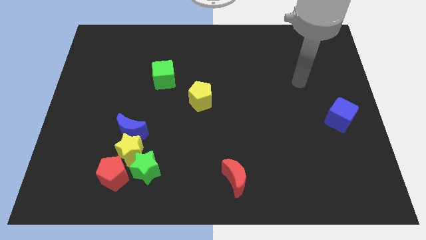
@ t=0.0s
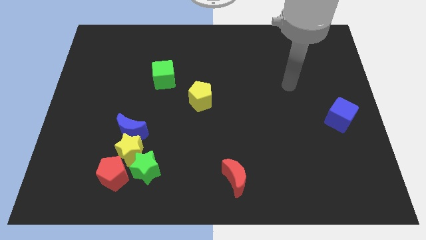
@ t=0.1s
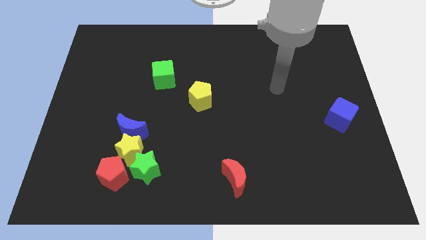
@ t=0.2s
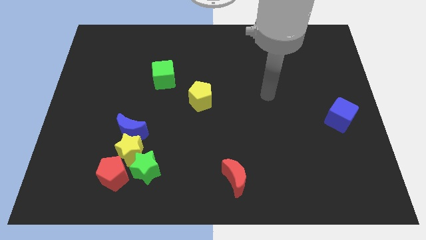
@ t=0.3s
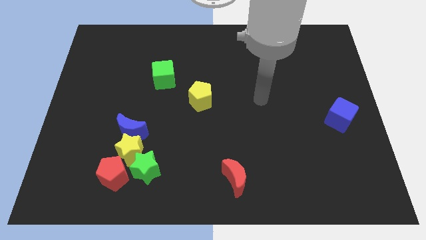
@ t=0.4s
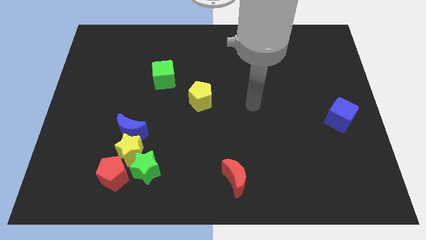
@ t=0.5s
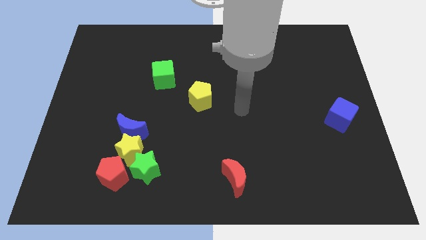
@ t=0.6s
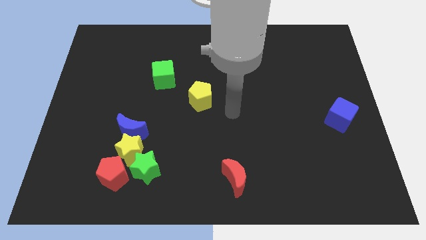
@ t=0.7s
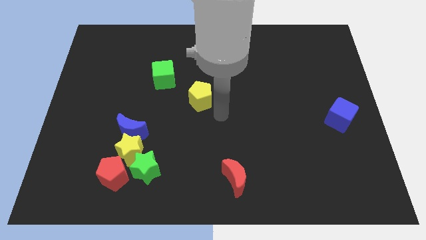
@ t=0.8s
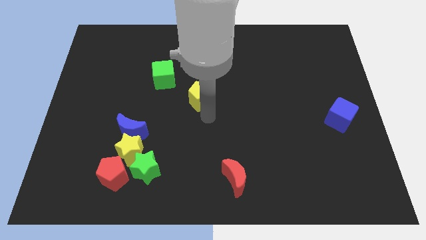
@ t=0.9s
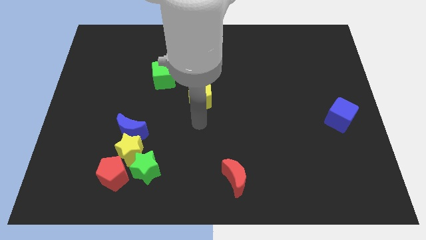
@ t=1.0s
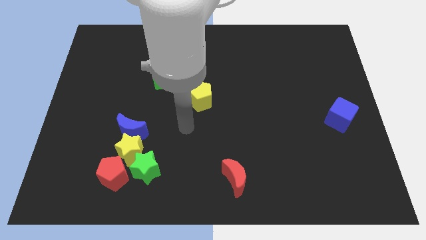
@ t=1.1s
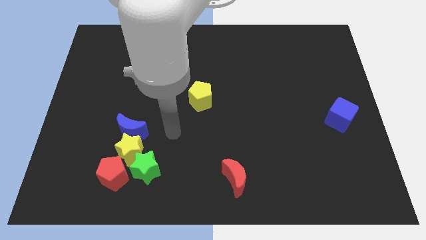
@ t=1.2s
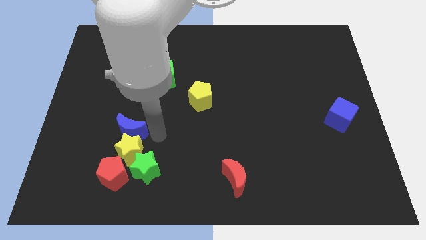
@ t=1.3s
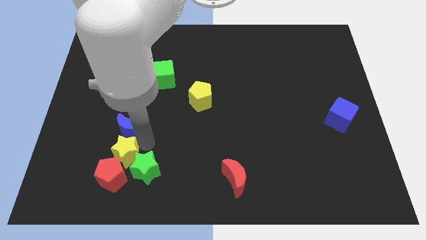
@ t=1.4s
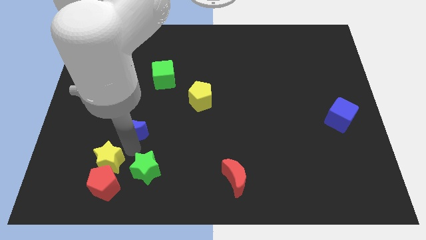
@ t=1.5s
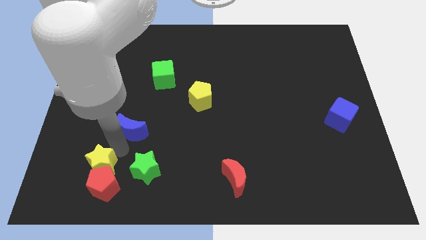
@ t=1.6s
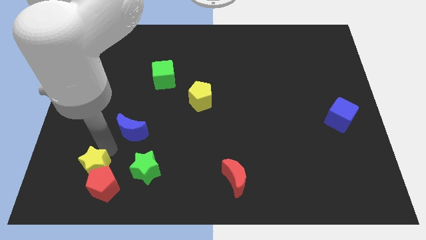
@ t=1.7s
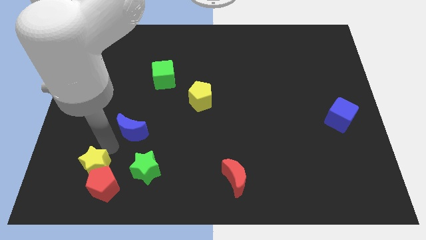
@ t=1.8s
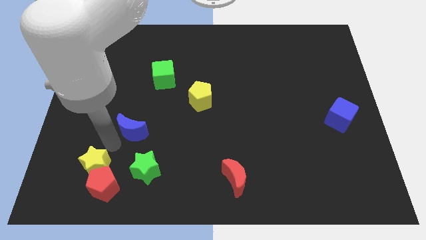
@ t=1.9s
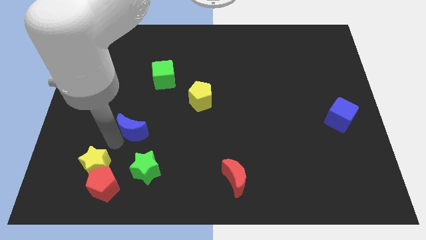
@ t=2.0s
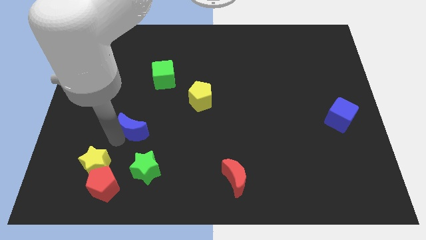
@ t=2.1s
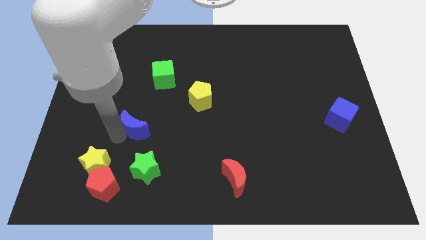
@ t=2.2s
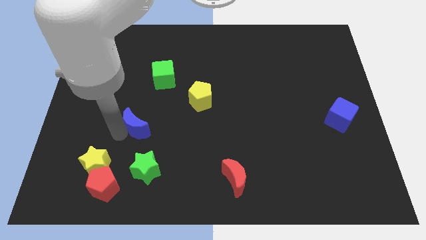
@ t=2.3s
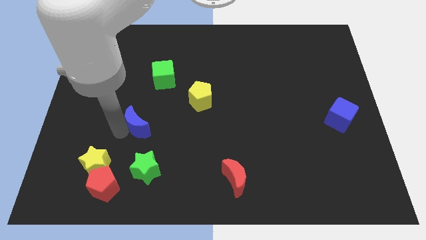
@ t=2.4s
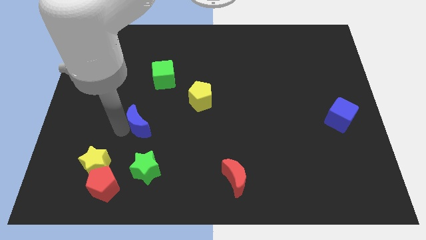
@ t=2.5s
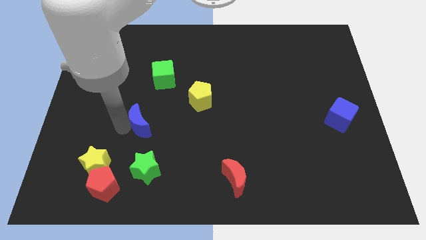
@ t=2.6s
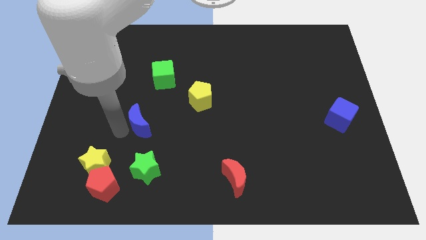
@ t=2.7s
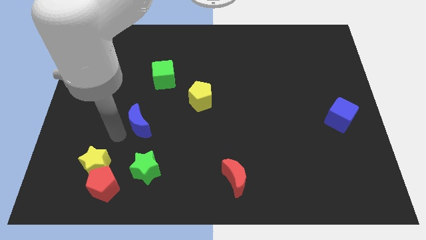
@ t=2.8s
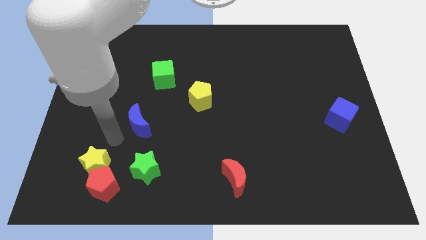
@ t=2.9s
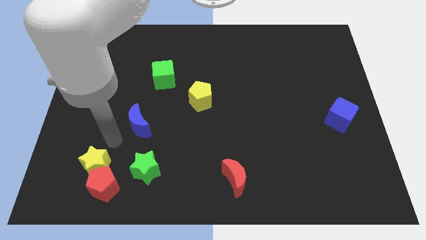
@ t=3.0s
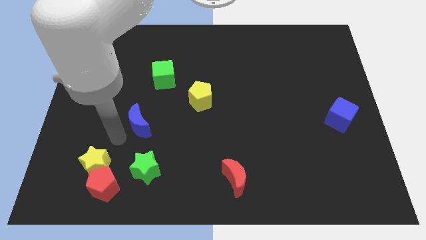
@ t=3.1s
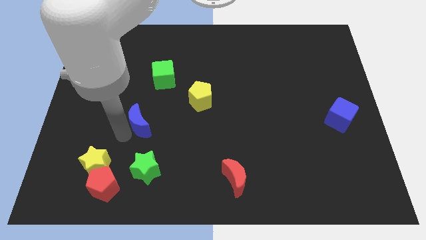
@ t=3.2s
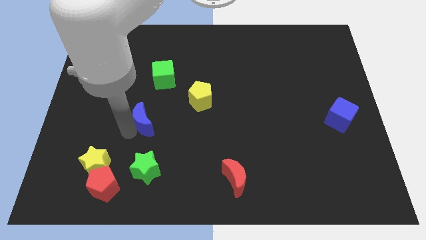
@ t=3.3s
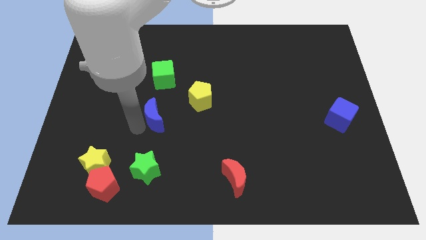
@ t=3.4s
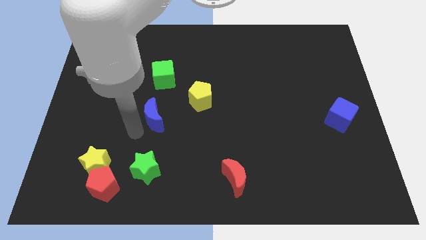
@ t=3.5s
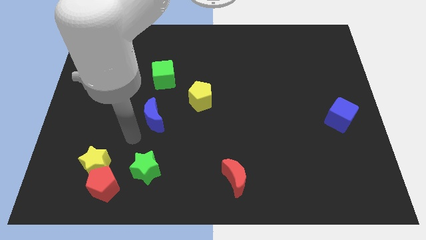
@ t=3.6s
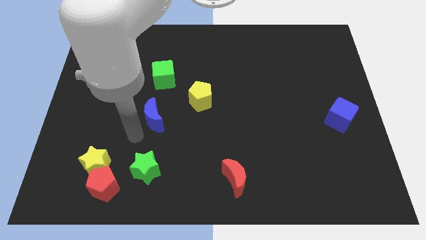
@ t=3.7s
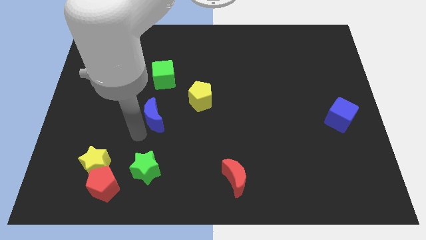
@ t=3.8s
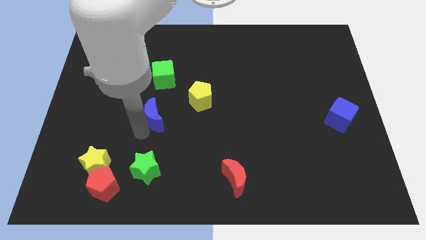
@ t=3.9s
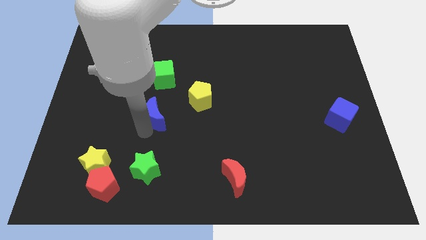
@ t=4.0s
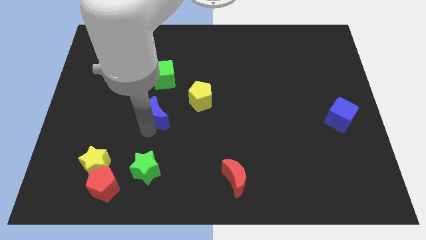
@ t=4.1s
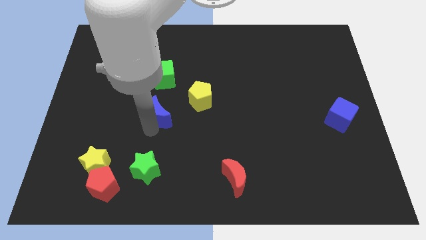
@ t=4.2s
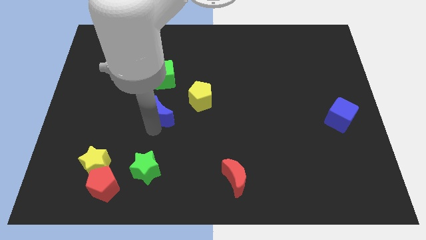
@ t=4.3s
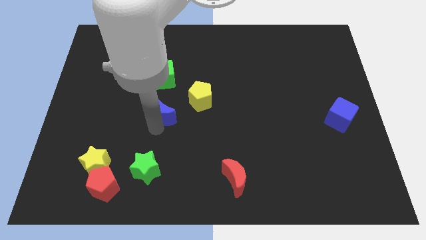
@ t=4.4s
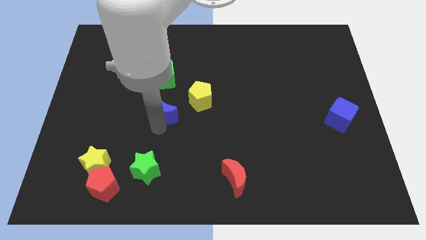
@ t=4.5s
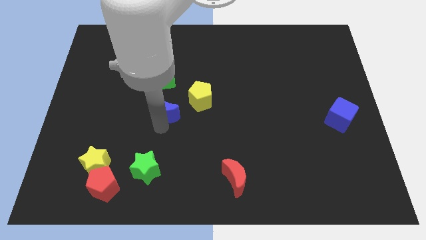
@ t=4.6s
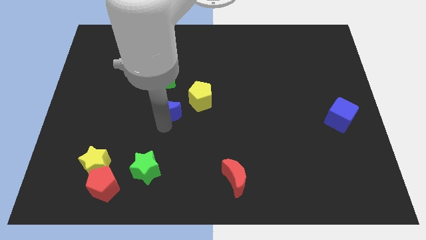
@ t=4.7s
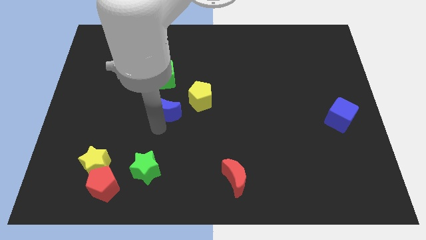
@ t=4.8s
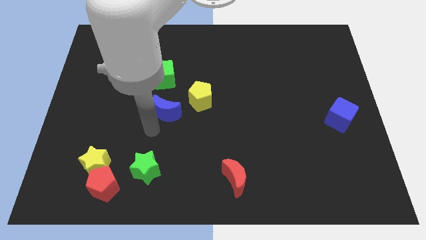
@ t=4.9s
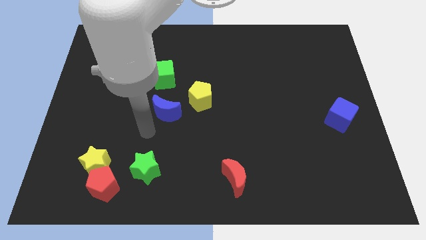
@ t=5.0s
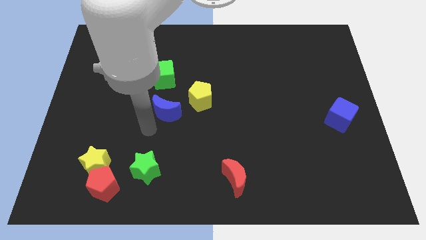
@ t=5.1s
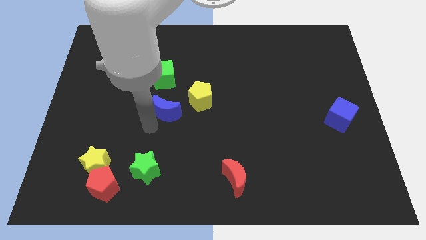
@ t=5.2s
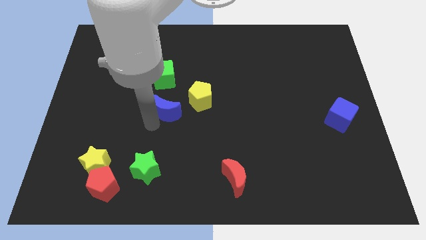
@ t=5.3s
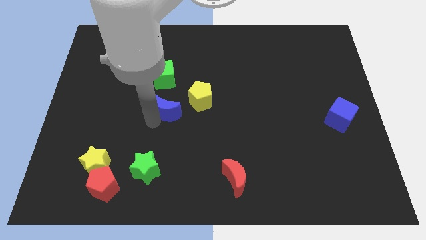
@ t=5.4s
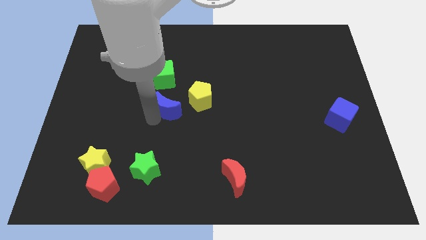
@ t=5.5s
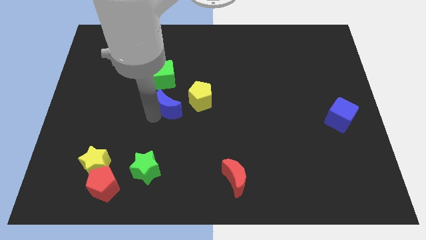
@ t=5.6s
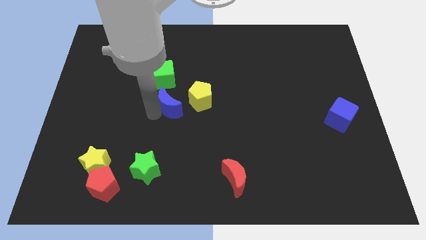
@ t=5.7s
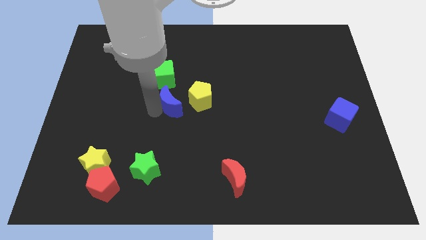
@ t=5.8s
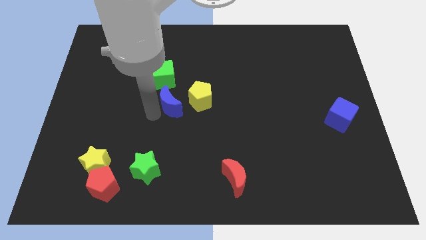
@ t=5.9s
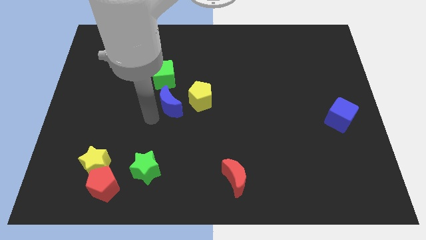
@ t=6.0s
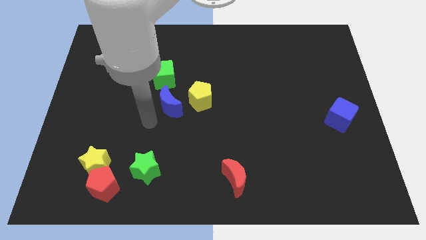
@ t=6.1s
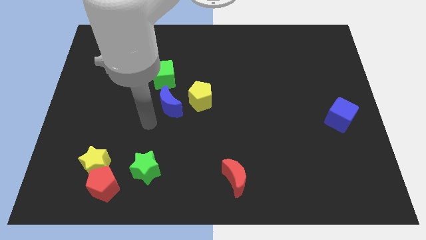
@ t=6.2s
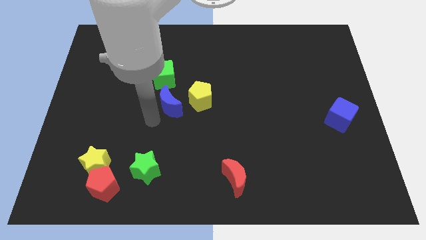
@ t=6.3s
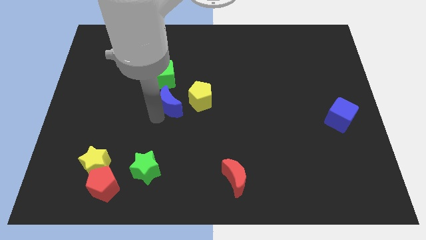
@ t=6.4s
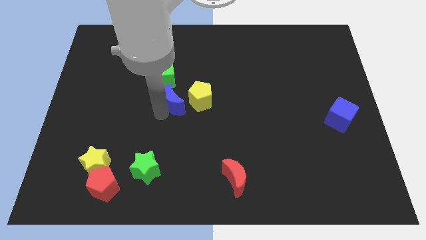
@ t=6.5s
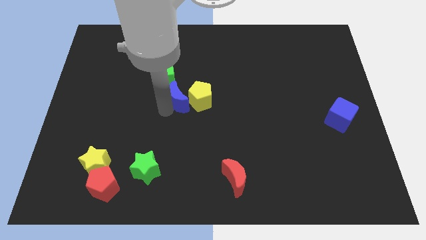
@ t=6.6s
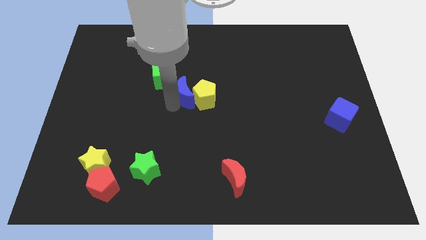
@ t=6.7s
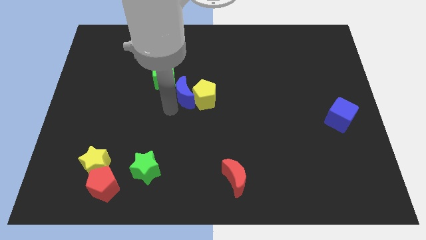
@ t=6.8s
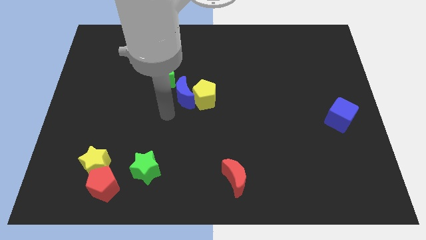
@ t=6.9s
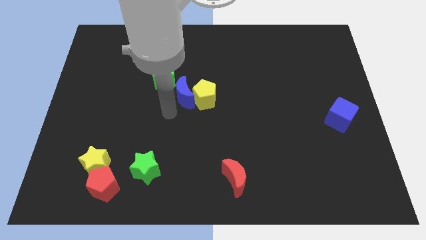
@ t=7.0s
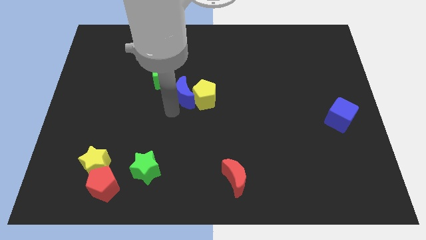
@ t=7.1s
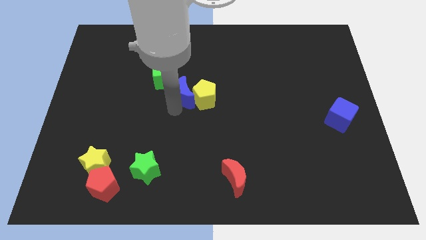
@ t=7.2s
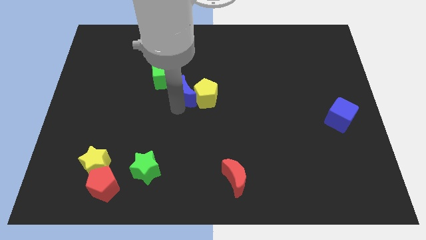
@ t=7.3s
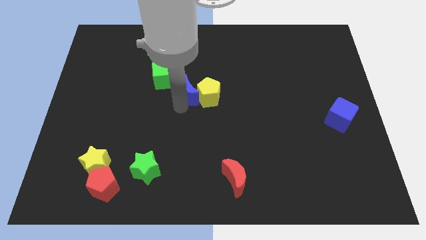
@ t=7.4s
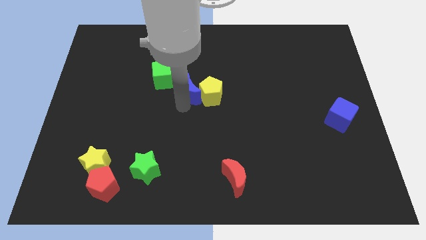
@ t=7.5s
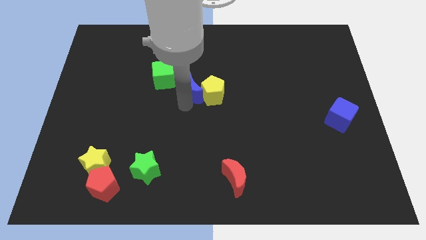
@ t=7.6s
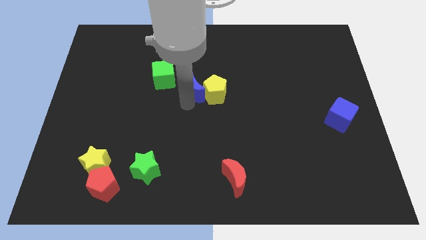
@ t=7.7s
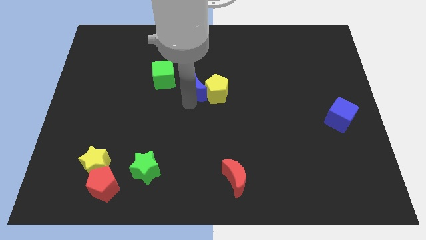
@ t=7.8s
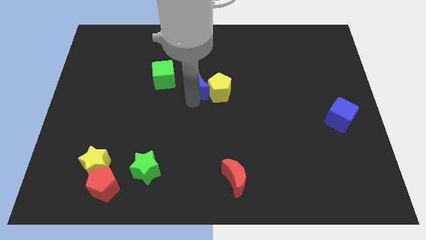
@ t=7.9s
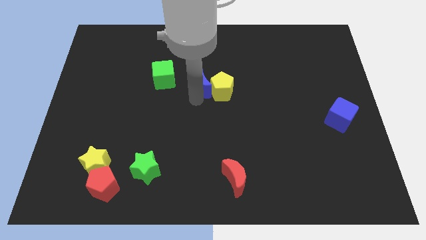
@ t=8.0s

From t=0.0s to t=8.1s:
slide the blue moon upwards and right diagonally
